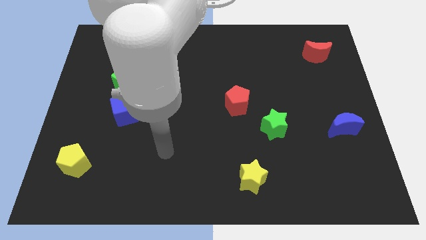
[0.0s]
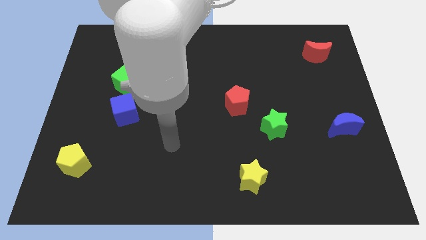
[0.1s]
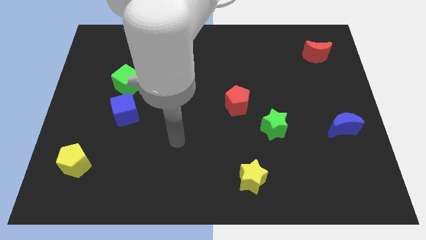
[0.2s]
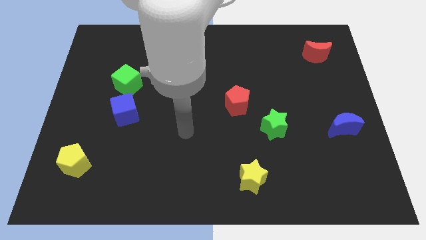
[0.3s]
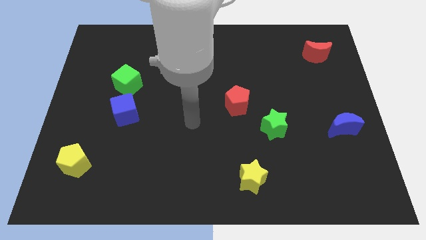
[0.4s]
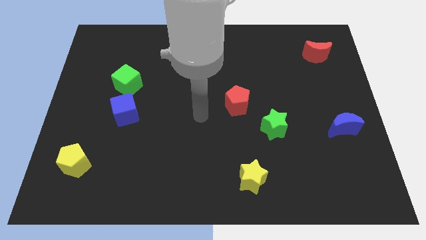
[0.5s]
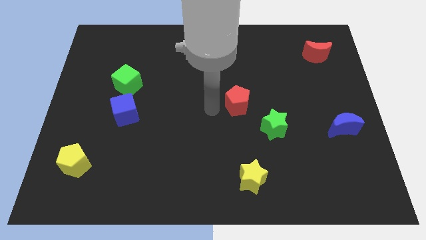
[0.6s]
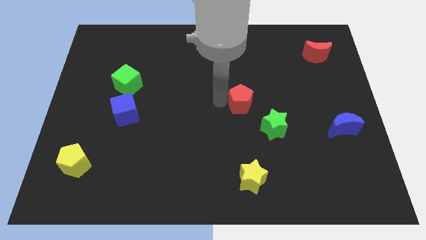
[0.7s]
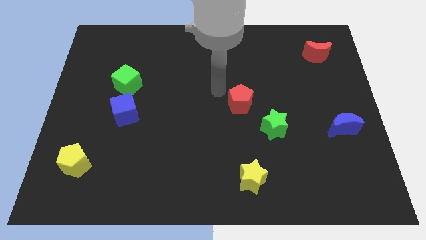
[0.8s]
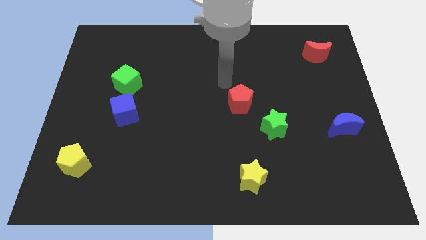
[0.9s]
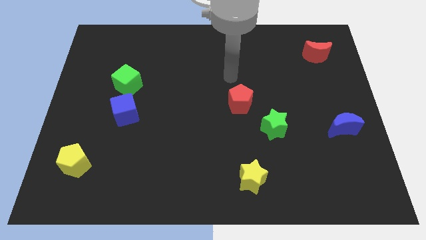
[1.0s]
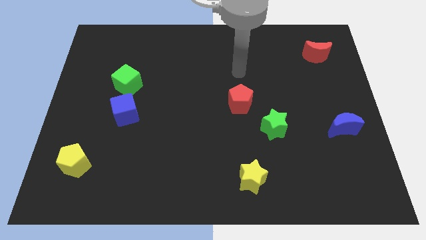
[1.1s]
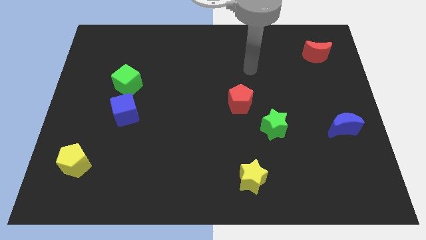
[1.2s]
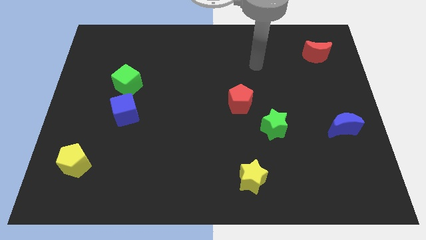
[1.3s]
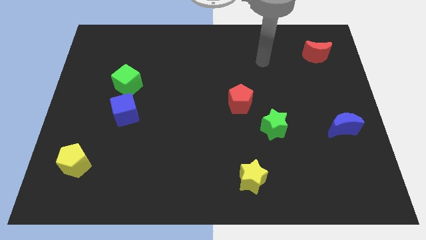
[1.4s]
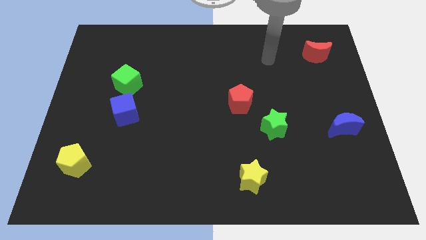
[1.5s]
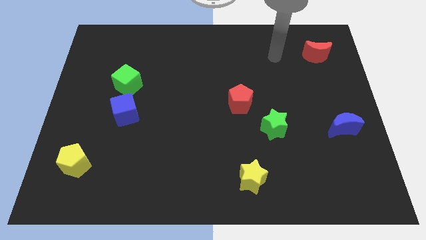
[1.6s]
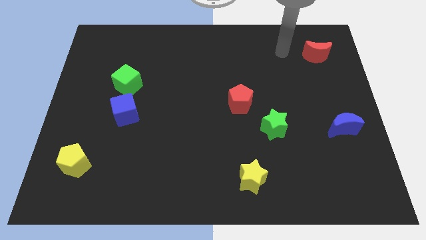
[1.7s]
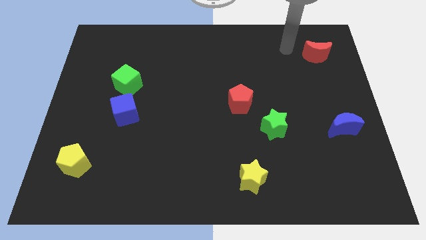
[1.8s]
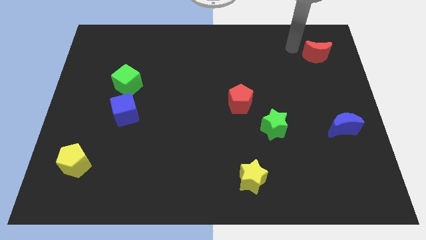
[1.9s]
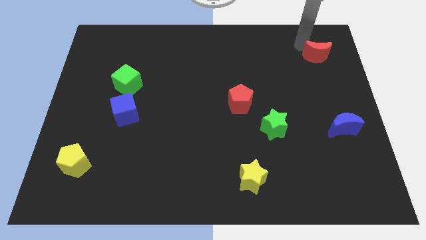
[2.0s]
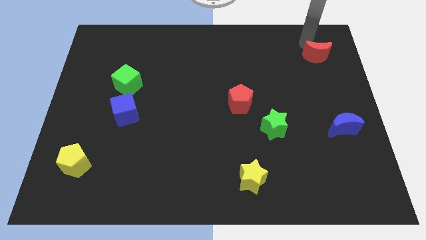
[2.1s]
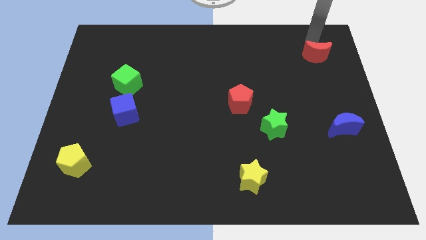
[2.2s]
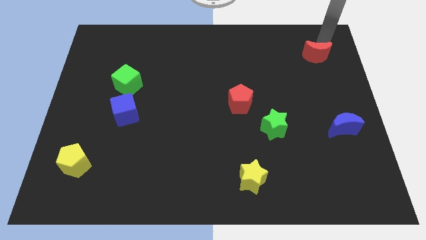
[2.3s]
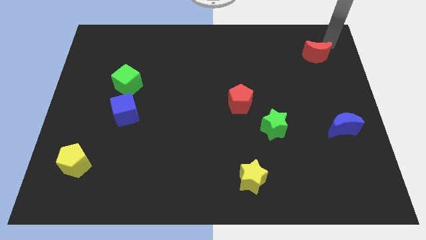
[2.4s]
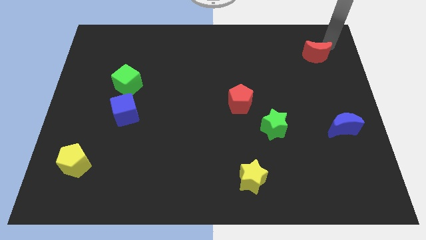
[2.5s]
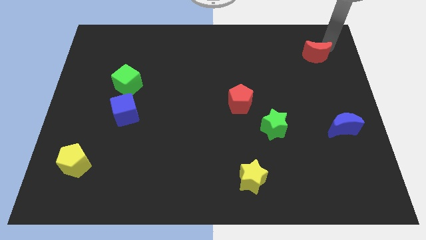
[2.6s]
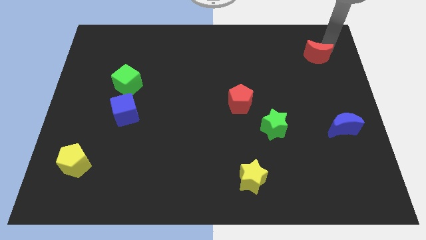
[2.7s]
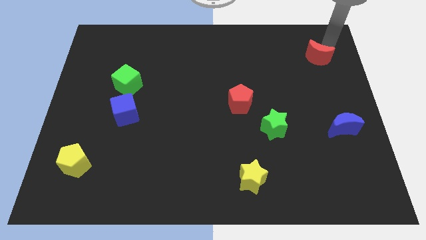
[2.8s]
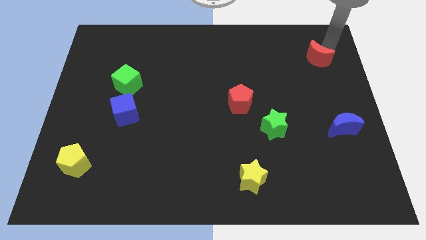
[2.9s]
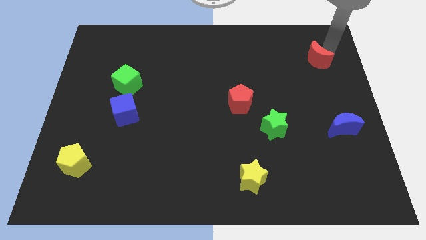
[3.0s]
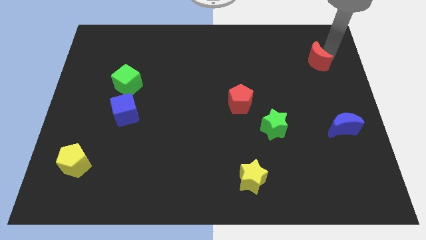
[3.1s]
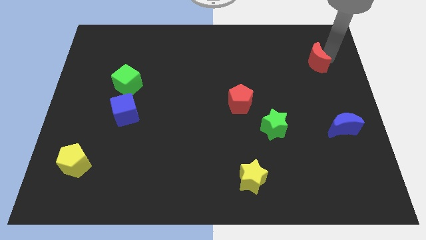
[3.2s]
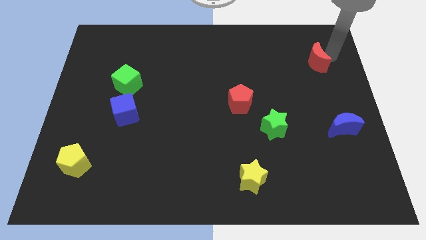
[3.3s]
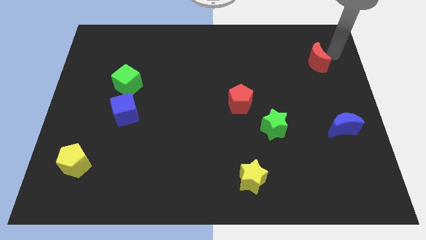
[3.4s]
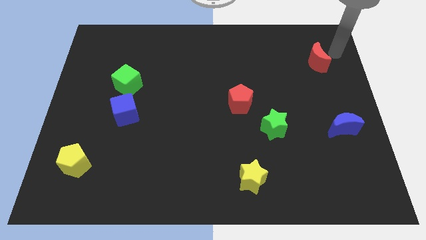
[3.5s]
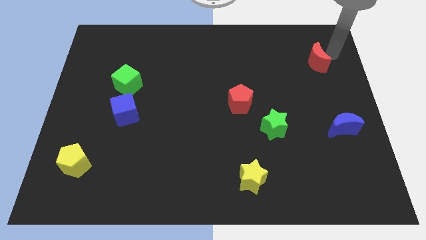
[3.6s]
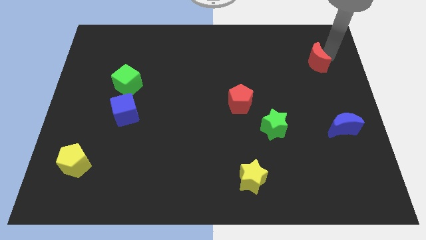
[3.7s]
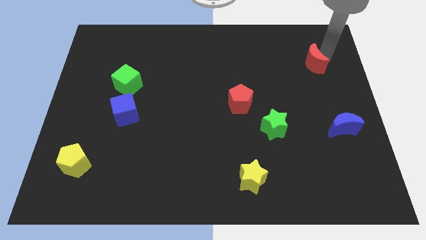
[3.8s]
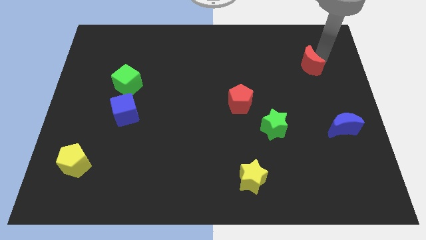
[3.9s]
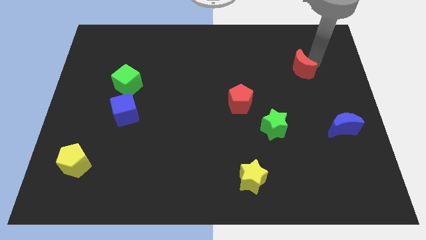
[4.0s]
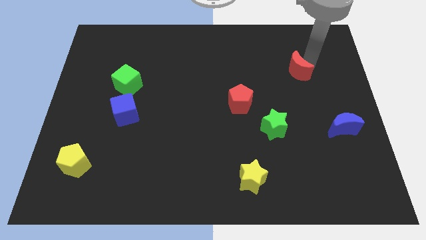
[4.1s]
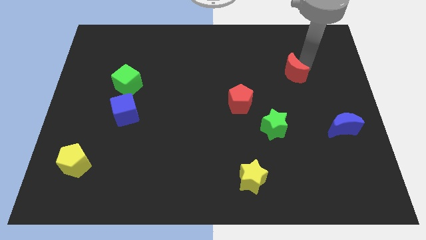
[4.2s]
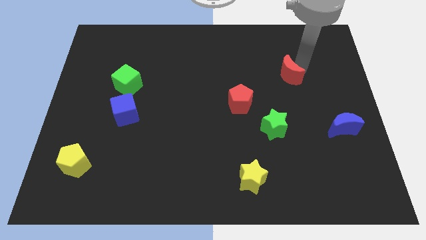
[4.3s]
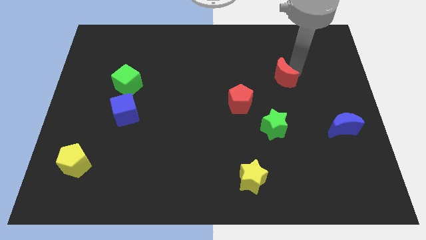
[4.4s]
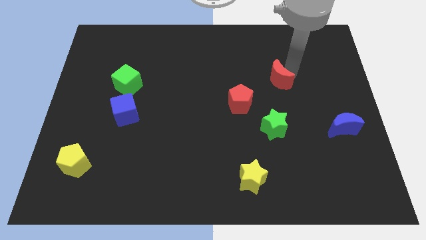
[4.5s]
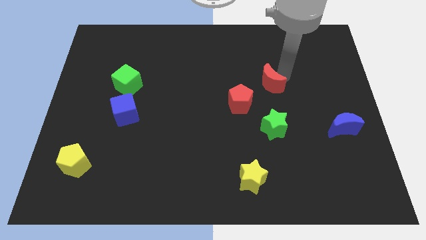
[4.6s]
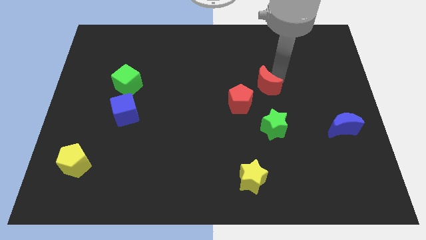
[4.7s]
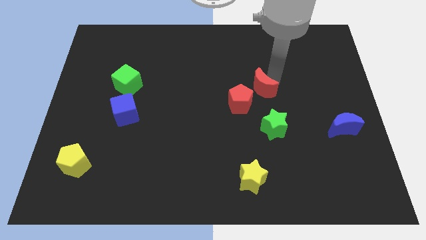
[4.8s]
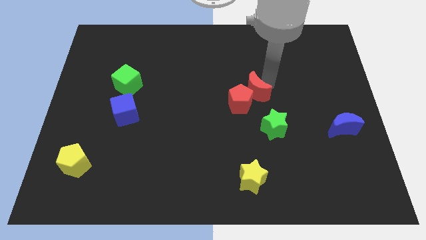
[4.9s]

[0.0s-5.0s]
move the red moon close to the red pentagon

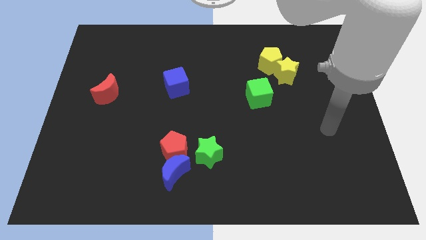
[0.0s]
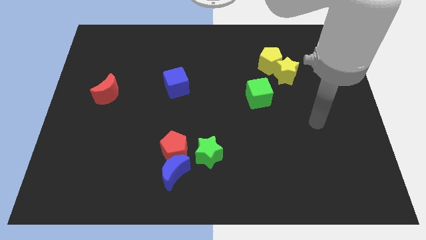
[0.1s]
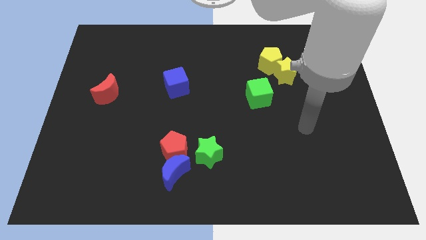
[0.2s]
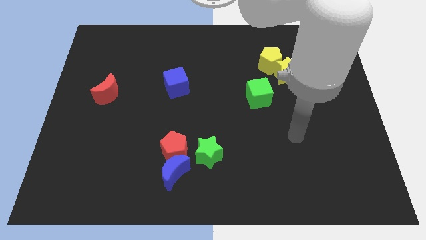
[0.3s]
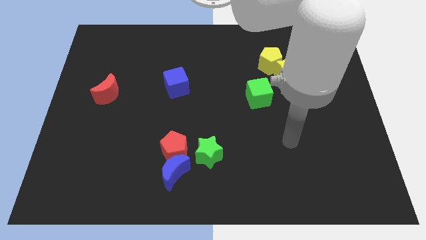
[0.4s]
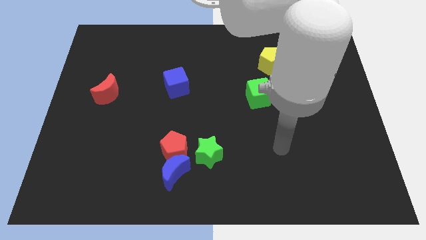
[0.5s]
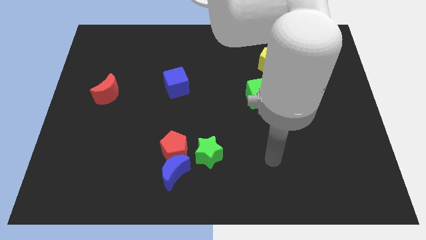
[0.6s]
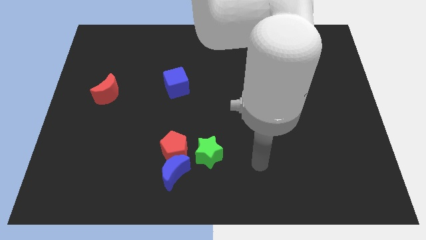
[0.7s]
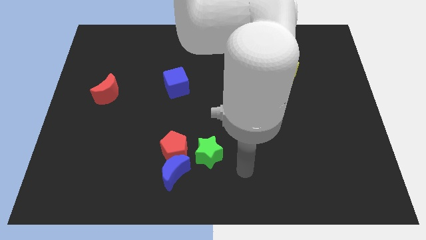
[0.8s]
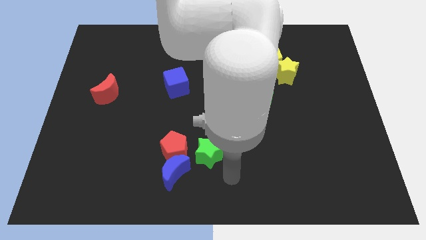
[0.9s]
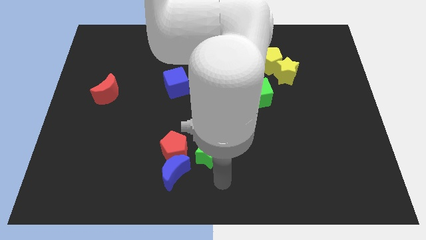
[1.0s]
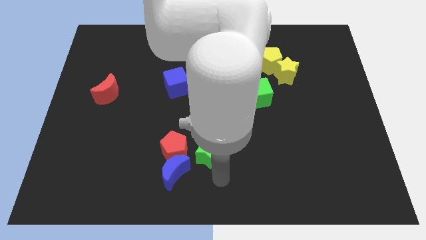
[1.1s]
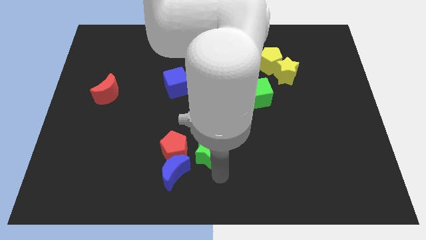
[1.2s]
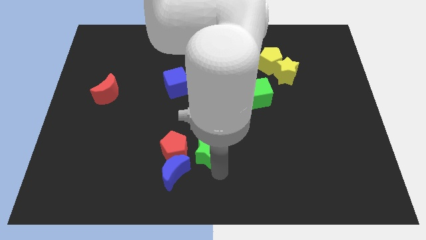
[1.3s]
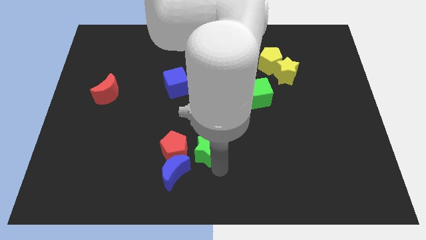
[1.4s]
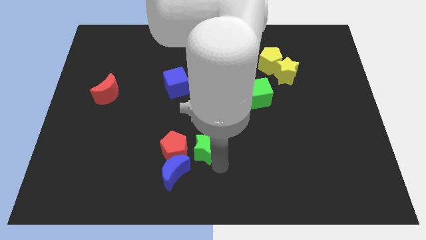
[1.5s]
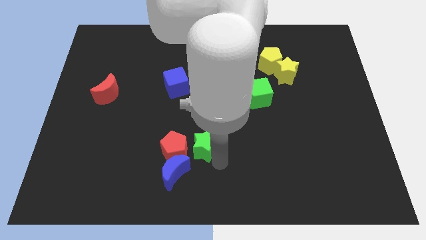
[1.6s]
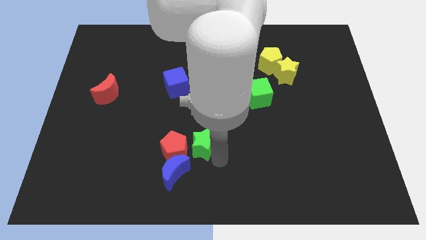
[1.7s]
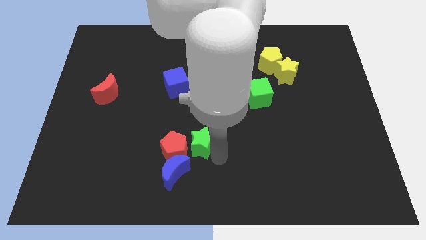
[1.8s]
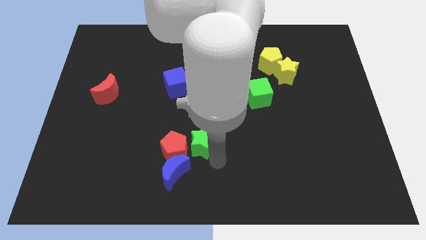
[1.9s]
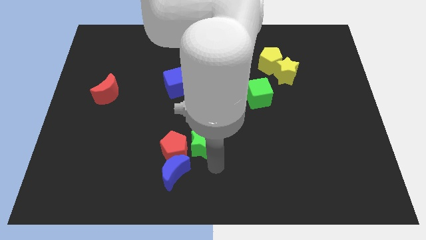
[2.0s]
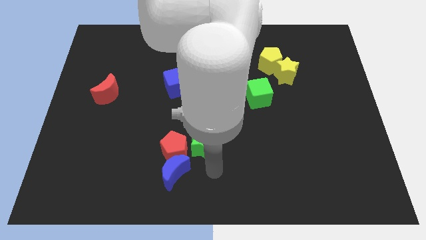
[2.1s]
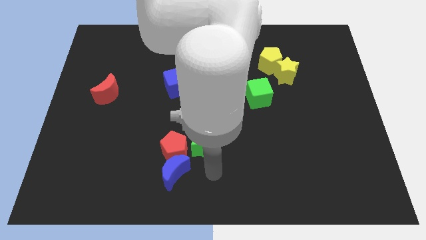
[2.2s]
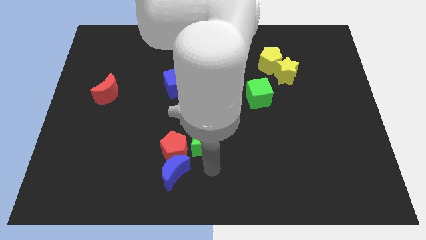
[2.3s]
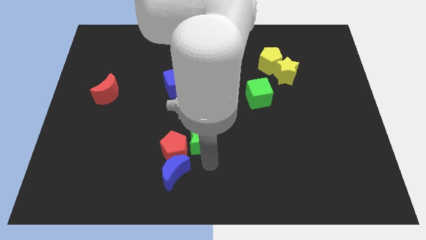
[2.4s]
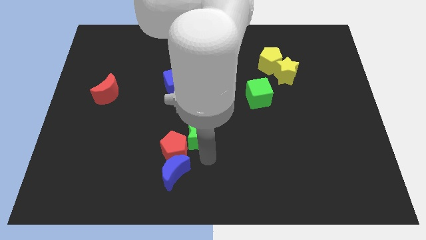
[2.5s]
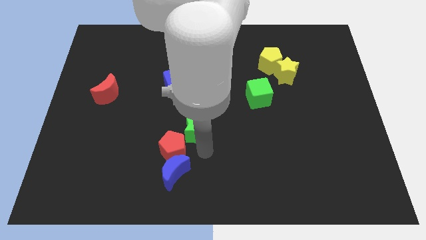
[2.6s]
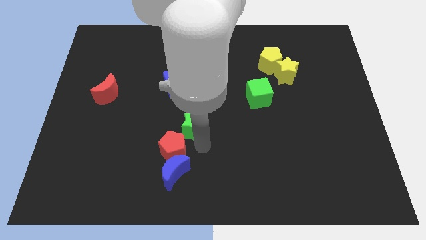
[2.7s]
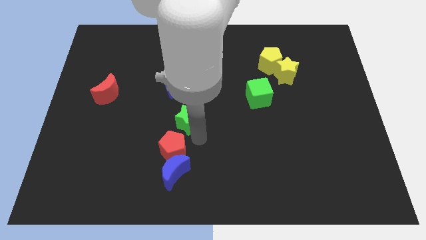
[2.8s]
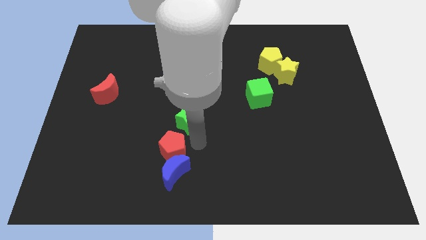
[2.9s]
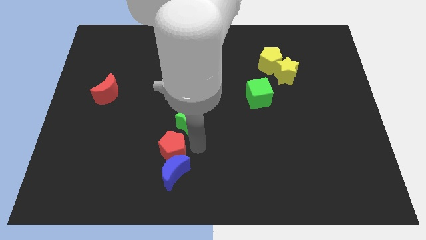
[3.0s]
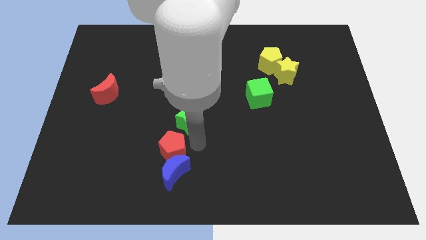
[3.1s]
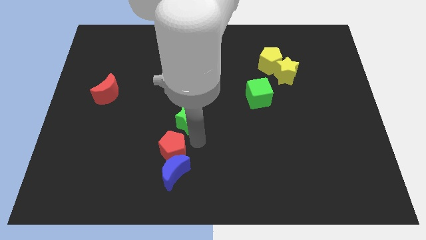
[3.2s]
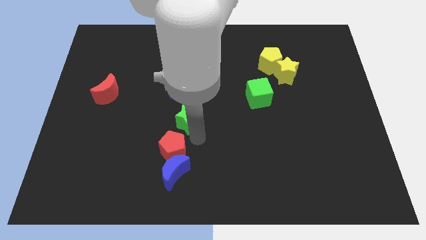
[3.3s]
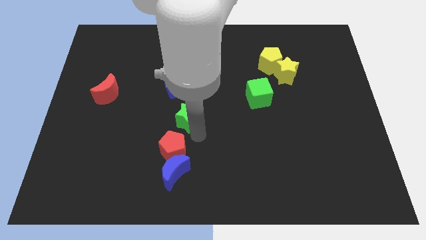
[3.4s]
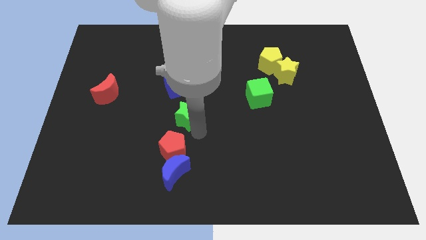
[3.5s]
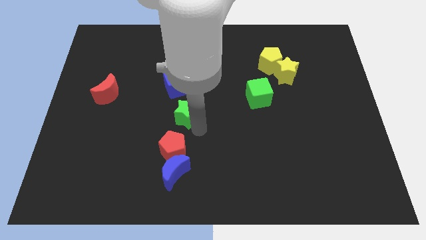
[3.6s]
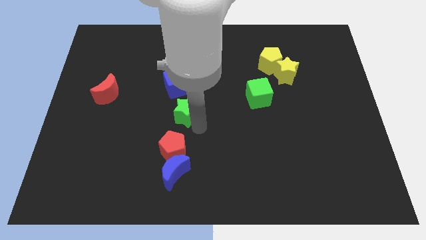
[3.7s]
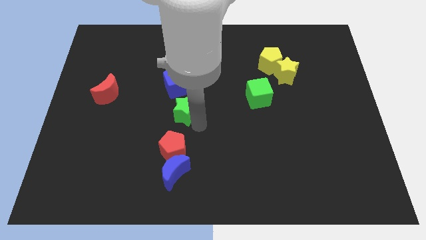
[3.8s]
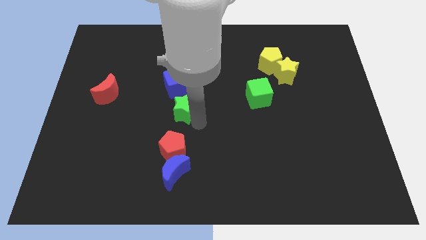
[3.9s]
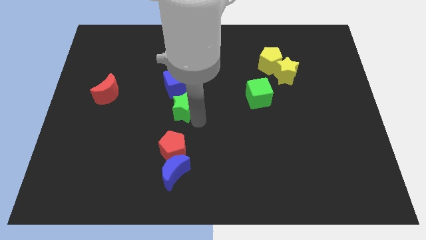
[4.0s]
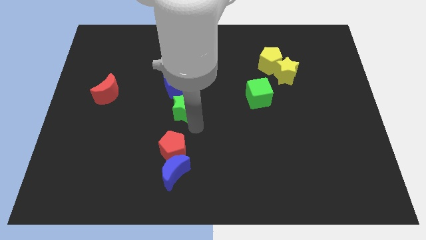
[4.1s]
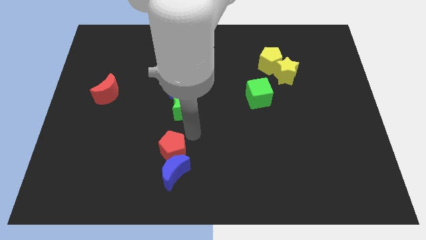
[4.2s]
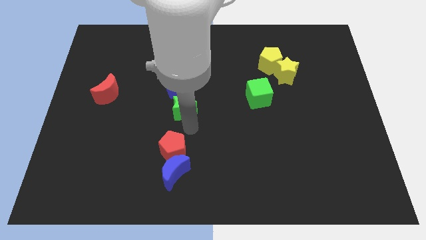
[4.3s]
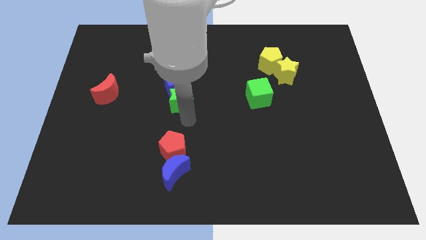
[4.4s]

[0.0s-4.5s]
move the green star close to the blue cube
